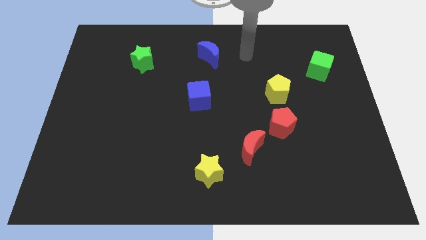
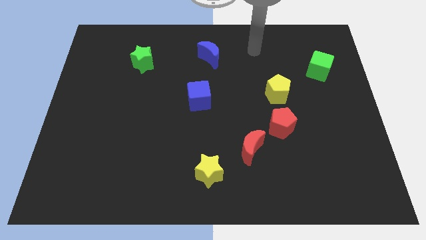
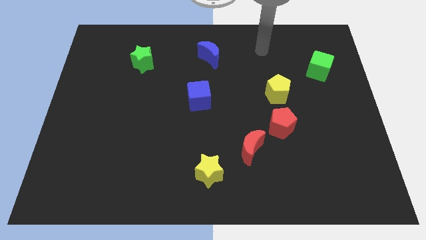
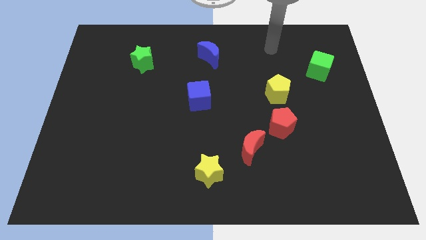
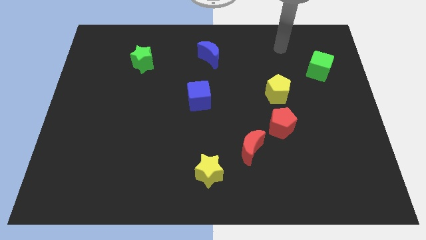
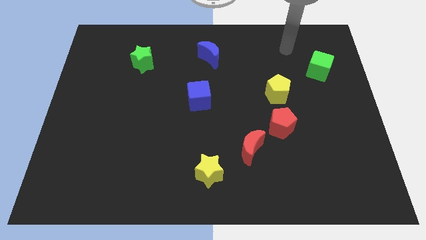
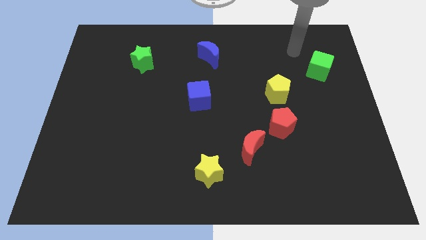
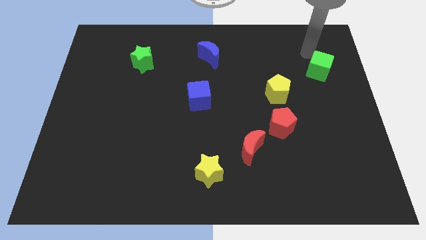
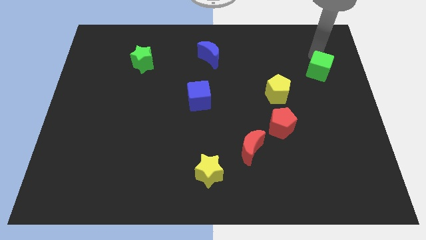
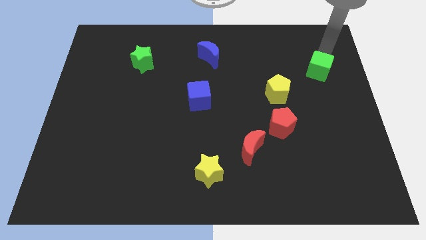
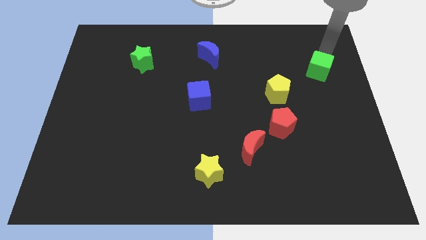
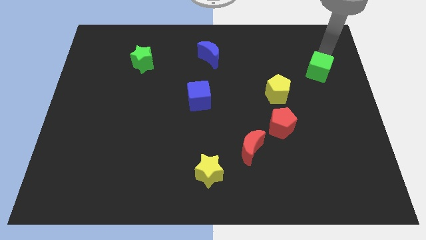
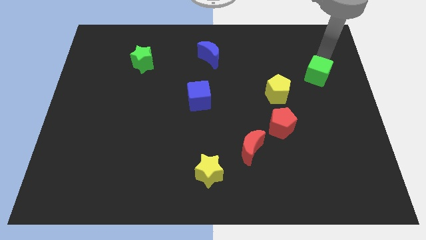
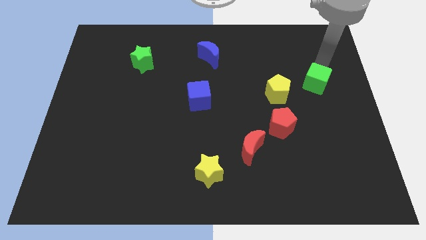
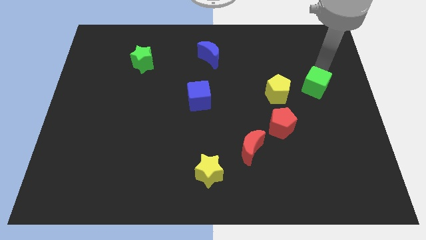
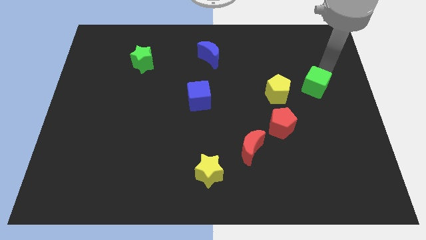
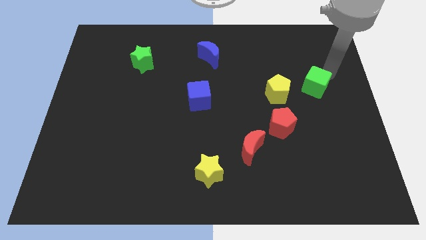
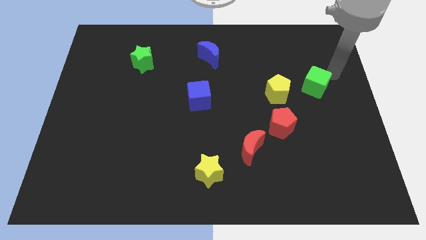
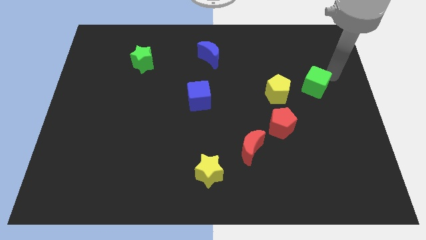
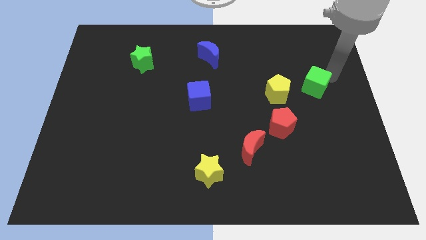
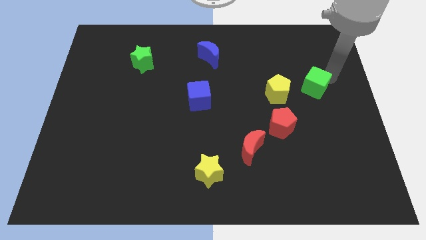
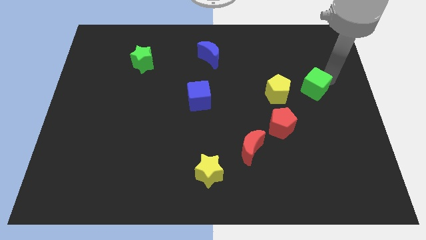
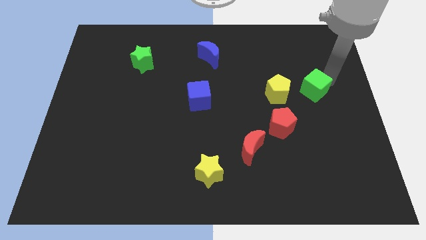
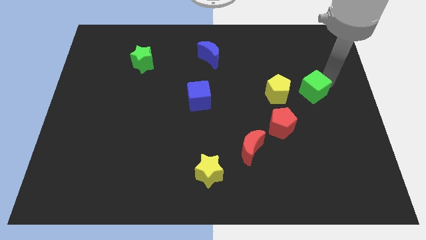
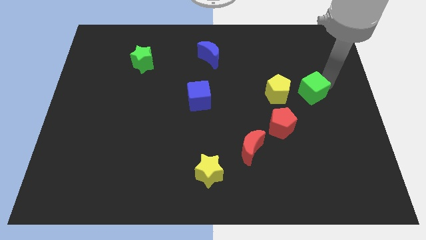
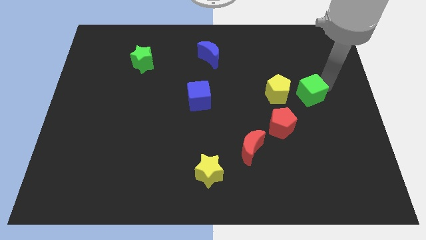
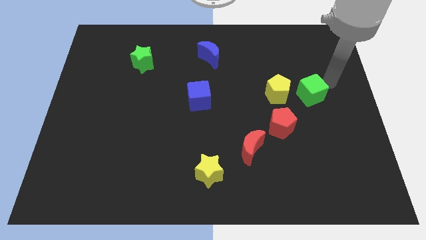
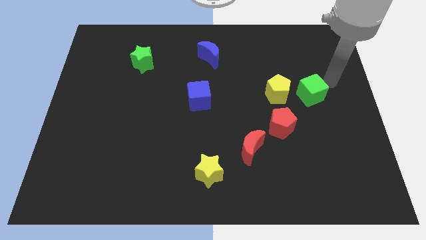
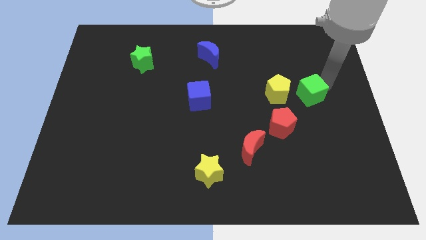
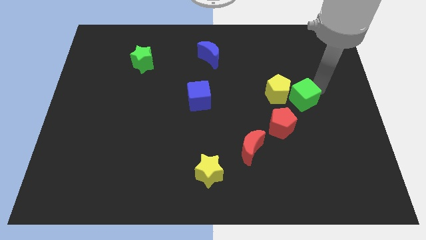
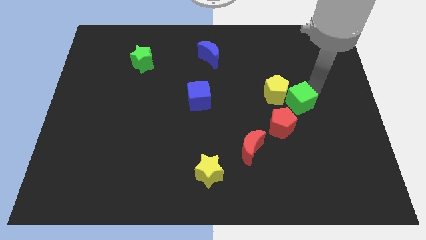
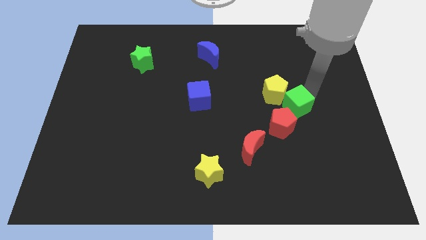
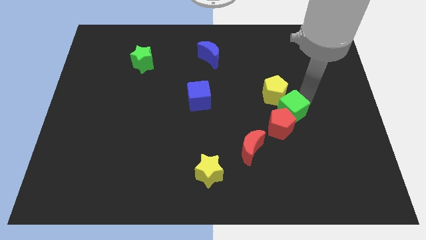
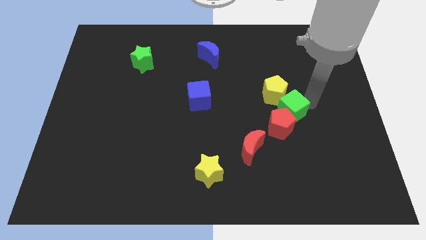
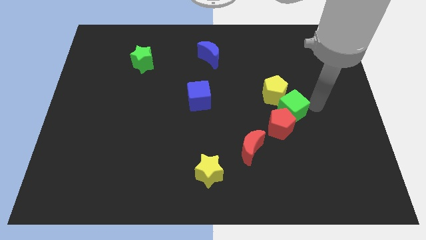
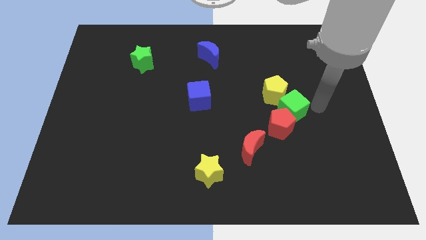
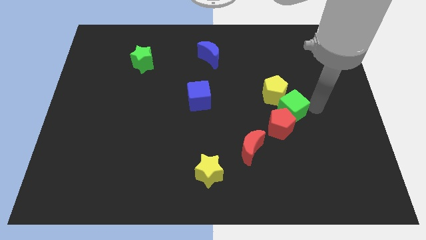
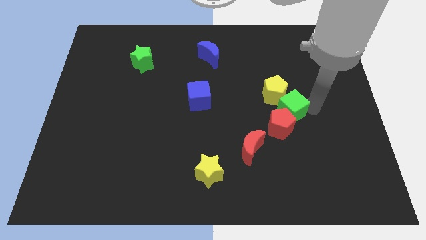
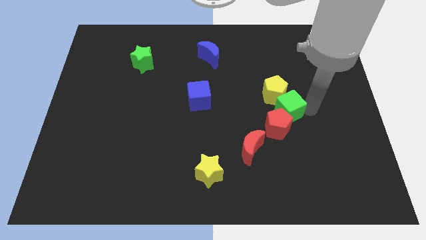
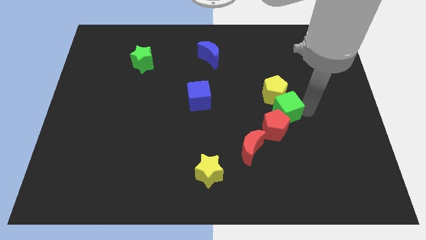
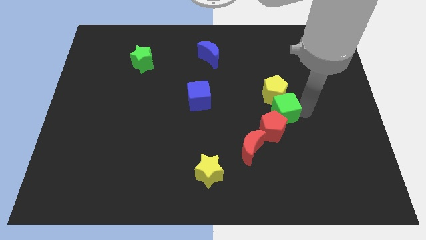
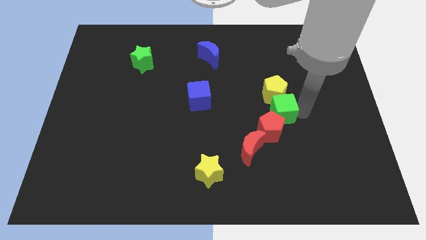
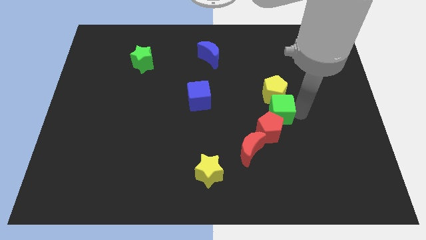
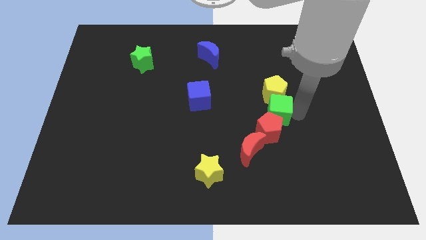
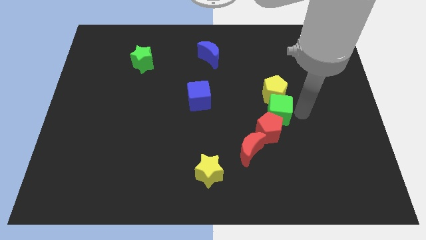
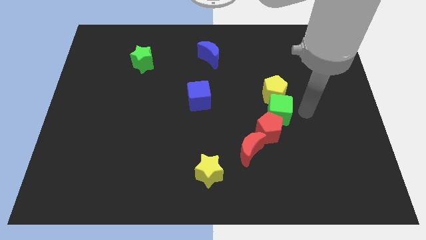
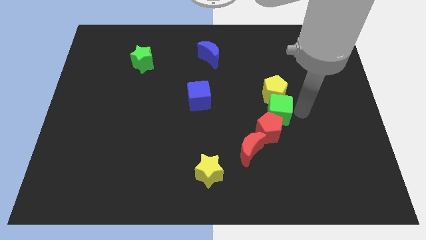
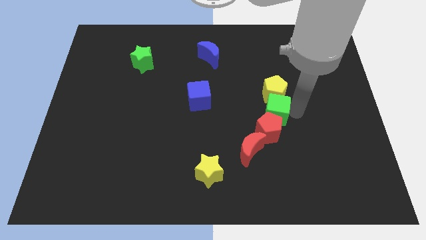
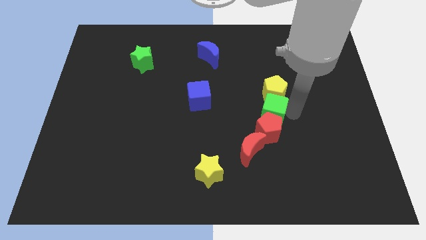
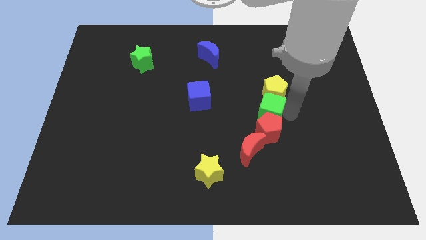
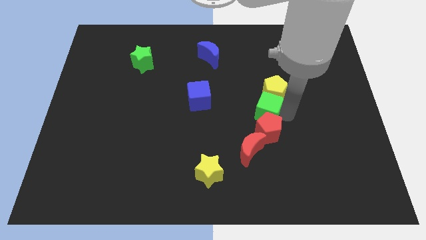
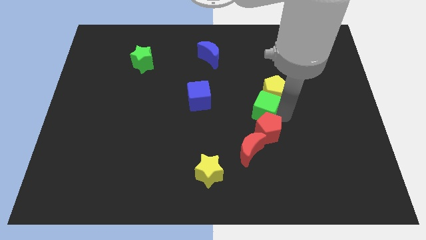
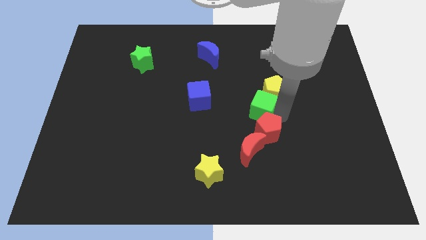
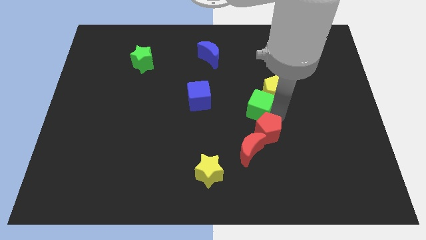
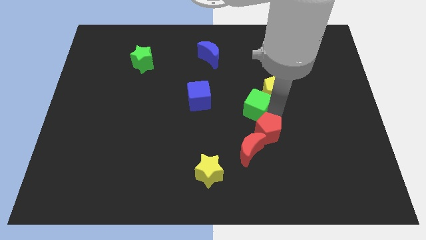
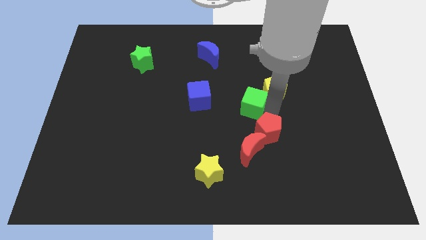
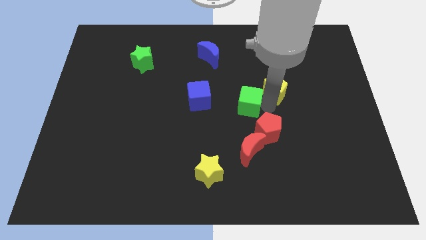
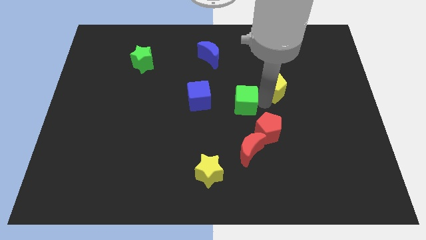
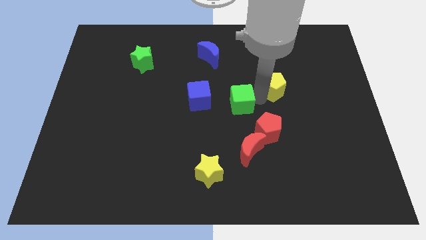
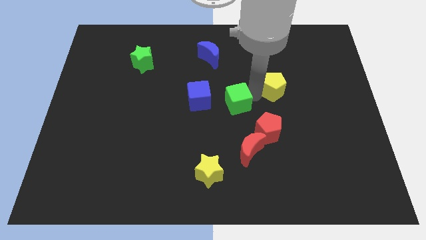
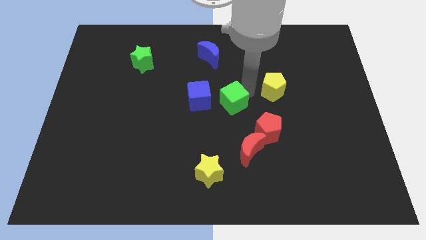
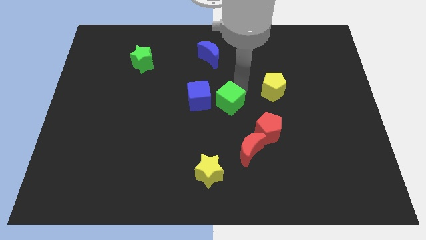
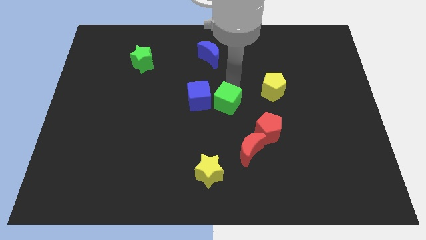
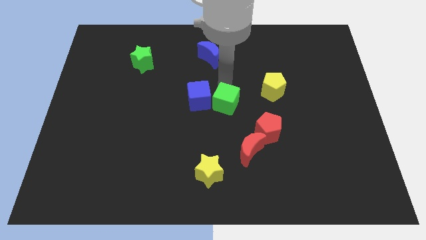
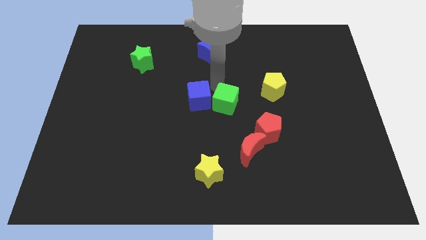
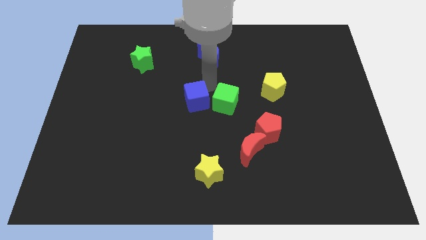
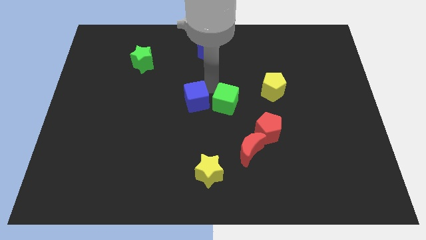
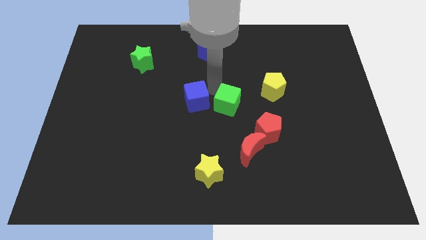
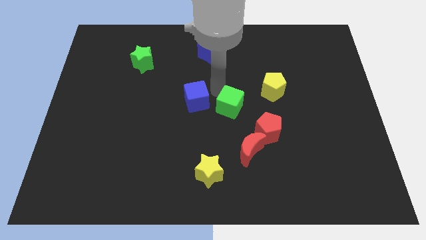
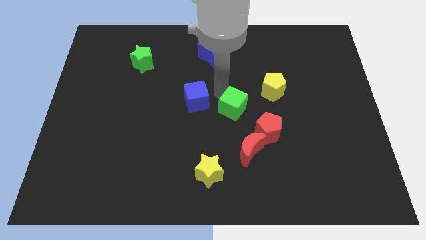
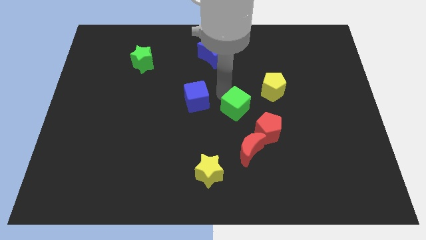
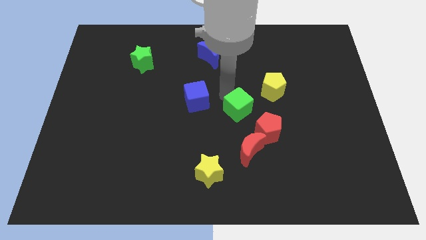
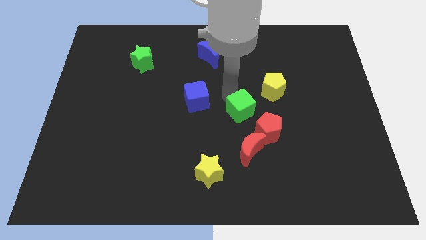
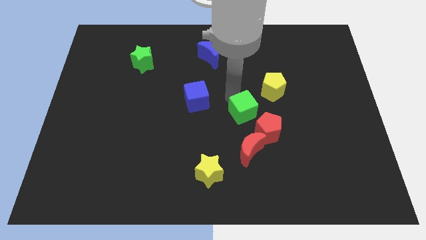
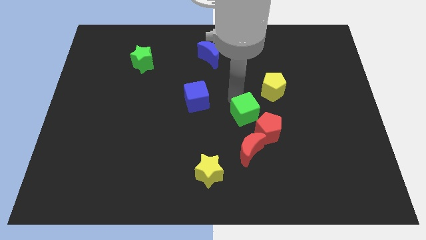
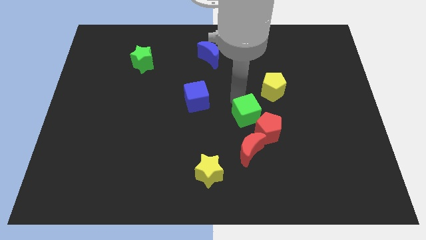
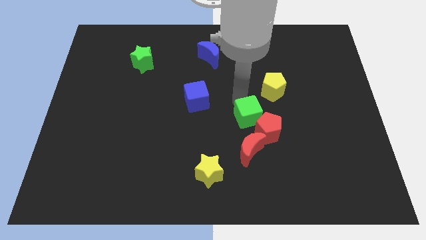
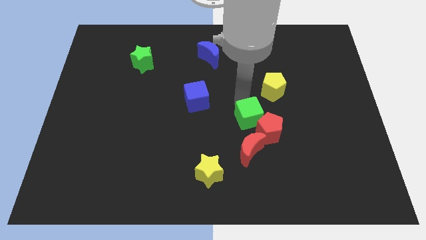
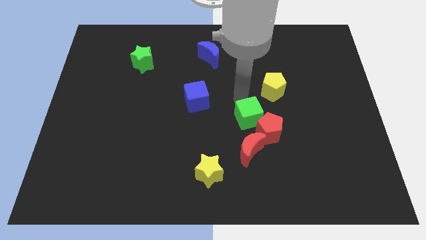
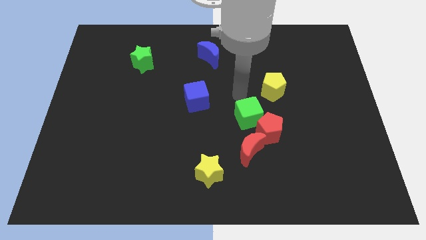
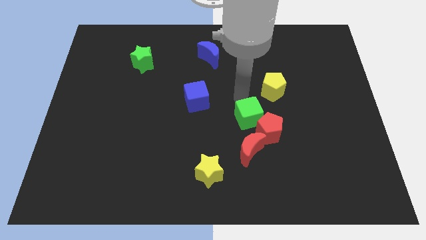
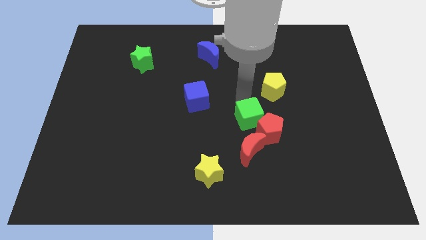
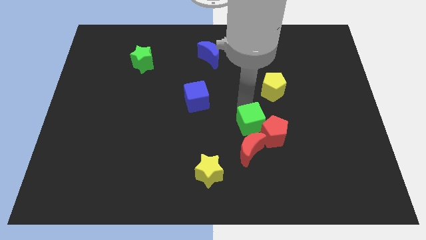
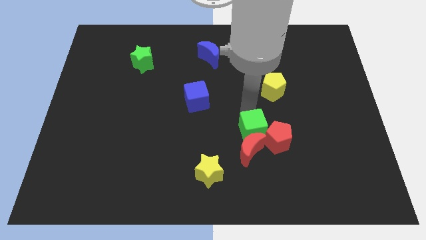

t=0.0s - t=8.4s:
slide the green cube next to the red moon
